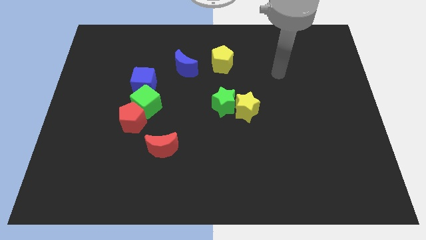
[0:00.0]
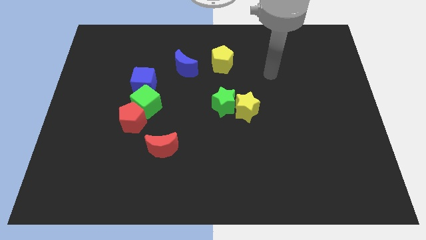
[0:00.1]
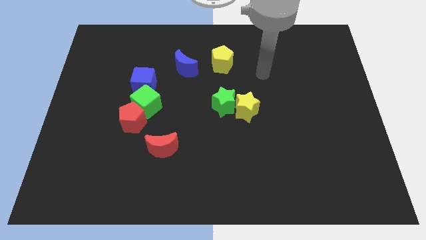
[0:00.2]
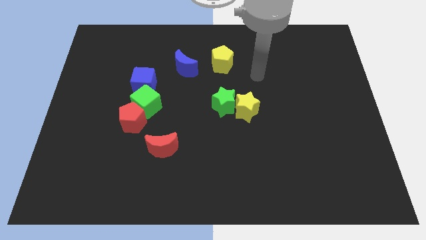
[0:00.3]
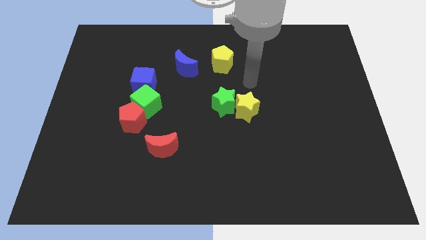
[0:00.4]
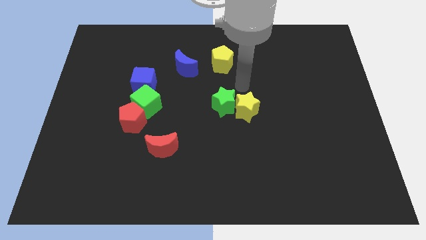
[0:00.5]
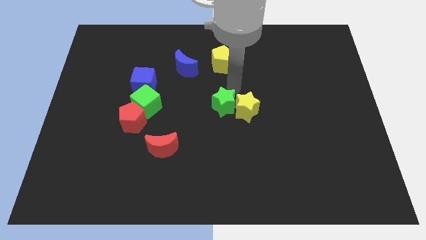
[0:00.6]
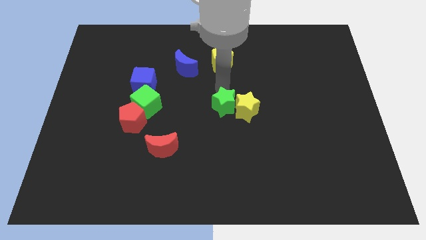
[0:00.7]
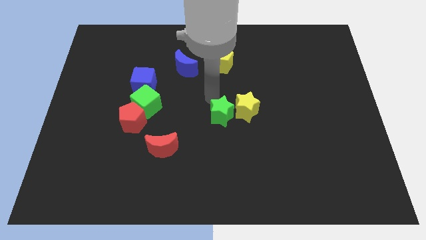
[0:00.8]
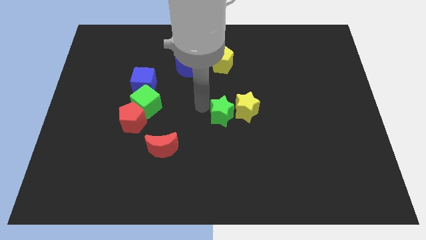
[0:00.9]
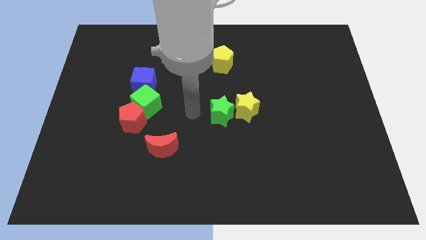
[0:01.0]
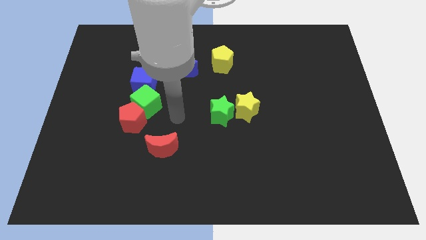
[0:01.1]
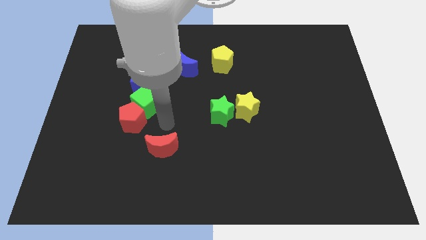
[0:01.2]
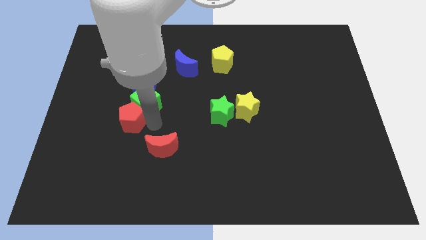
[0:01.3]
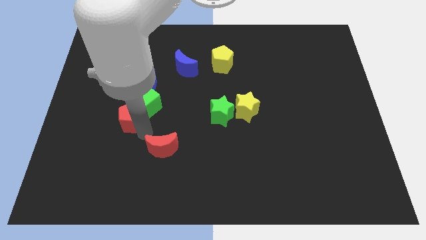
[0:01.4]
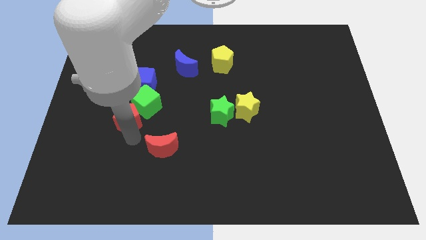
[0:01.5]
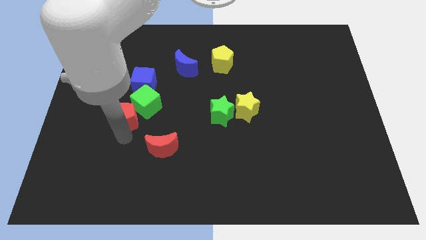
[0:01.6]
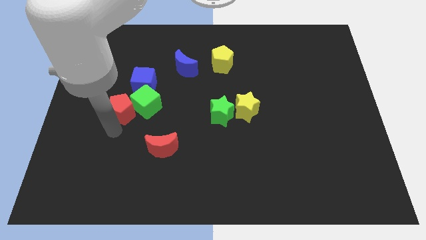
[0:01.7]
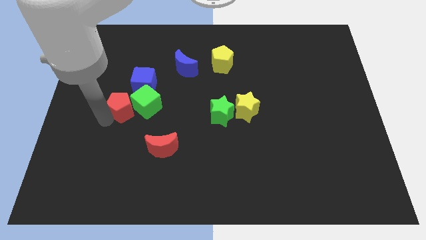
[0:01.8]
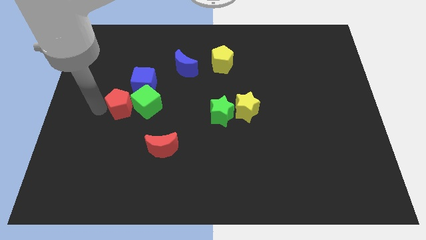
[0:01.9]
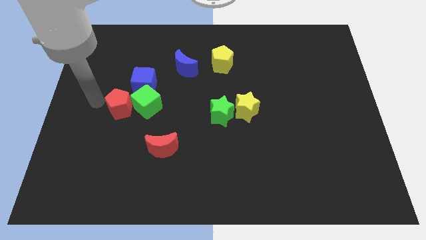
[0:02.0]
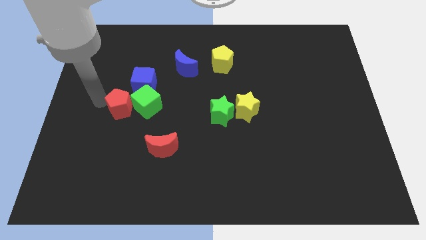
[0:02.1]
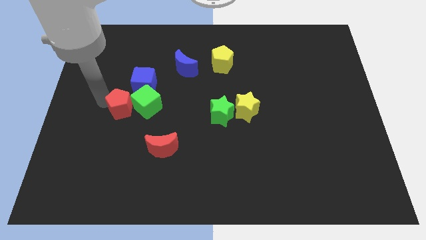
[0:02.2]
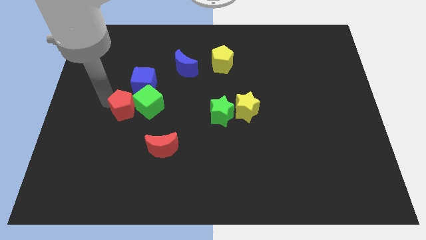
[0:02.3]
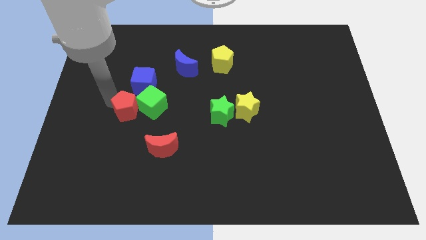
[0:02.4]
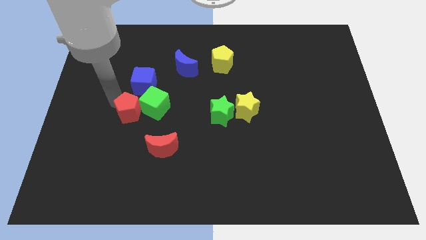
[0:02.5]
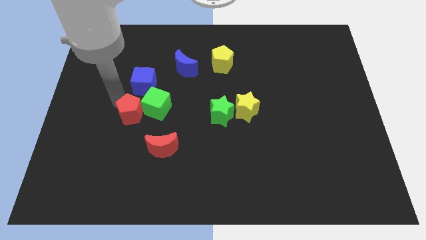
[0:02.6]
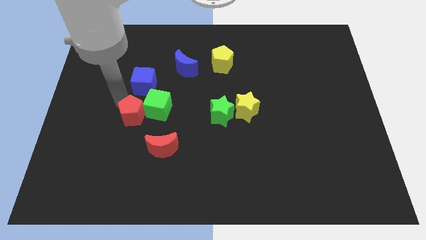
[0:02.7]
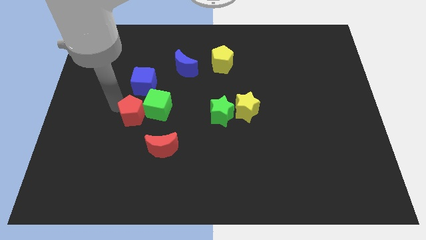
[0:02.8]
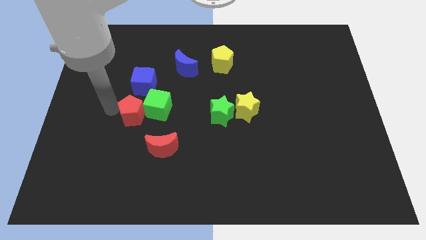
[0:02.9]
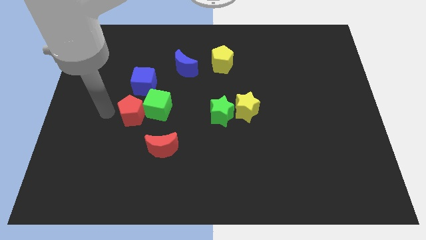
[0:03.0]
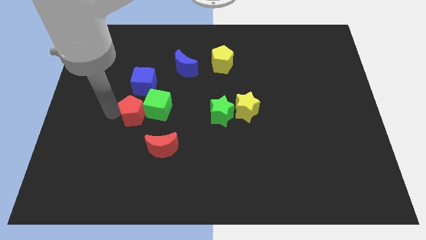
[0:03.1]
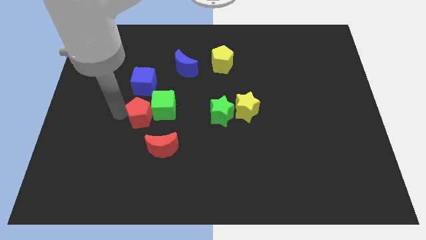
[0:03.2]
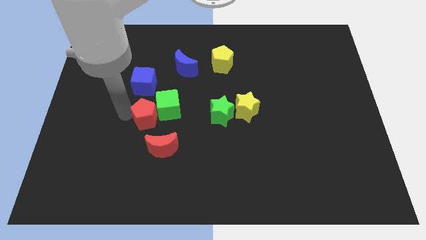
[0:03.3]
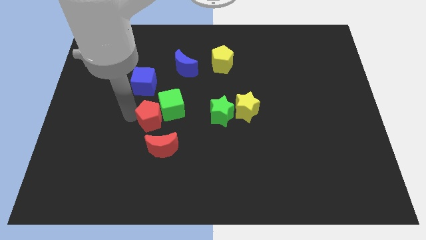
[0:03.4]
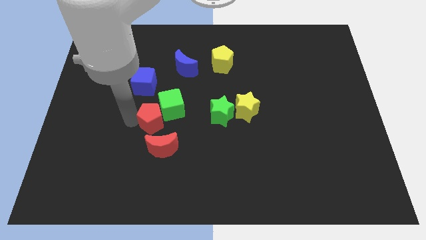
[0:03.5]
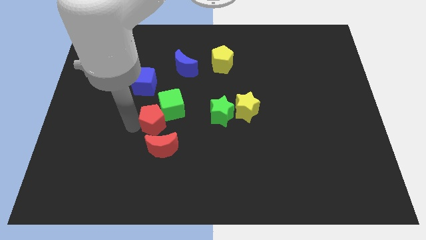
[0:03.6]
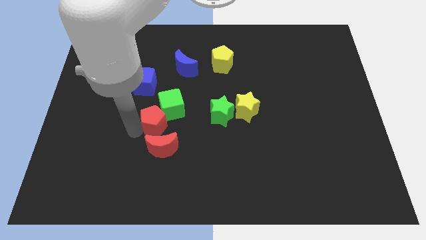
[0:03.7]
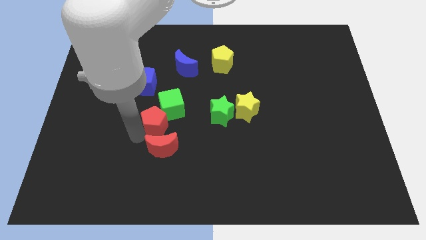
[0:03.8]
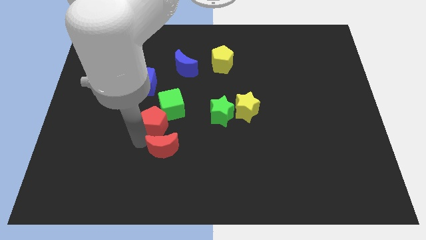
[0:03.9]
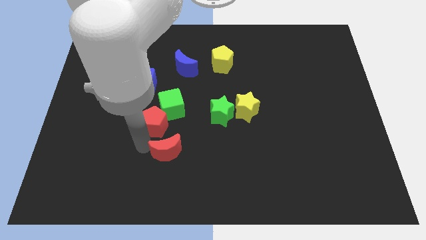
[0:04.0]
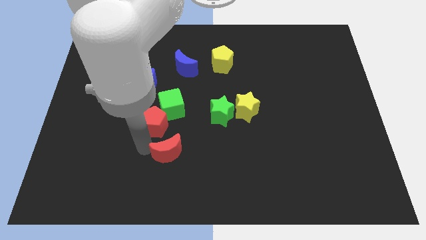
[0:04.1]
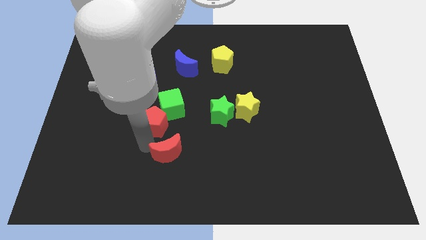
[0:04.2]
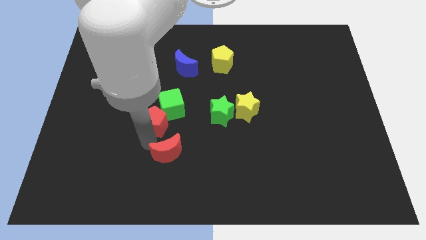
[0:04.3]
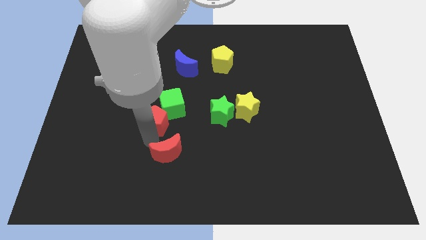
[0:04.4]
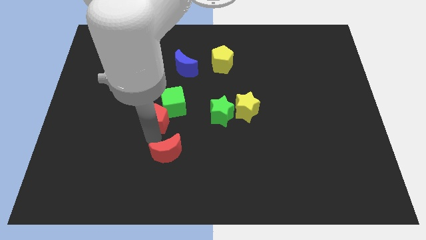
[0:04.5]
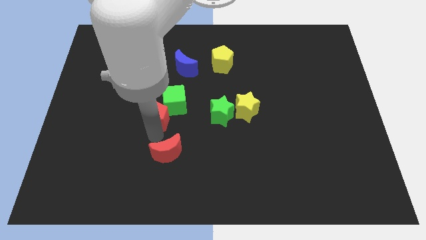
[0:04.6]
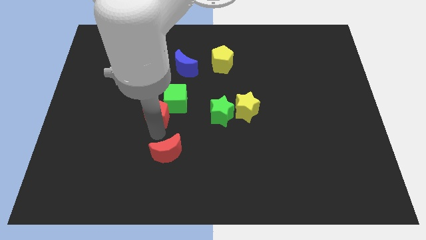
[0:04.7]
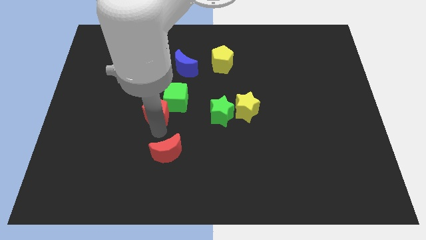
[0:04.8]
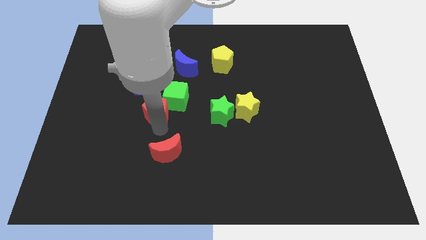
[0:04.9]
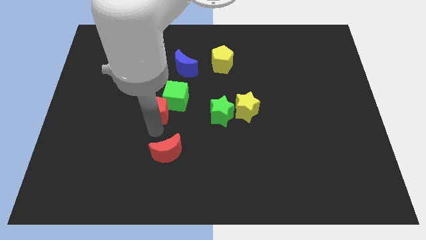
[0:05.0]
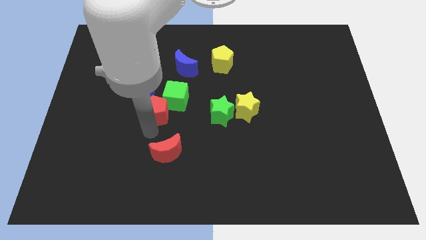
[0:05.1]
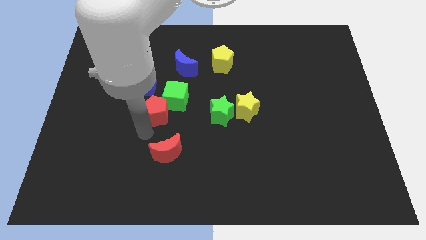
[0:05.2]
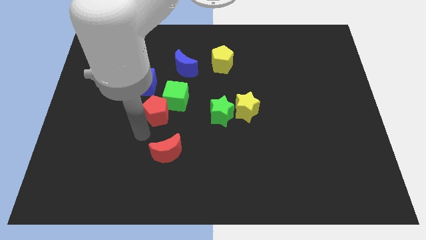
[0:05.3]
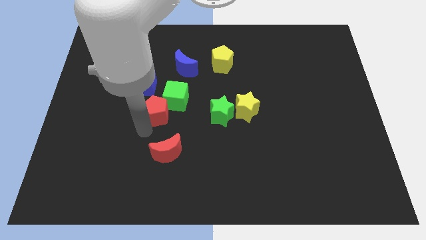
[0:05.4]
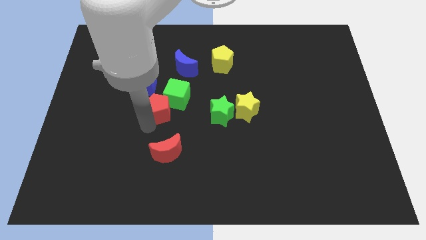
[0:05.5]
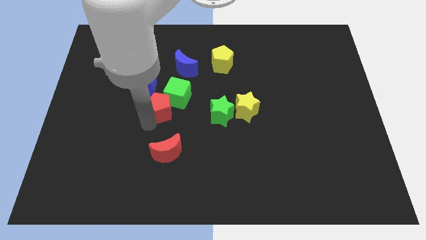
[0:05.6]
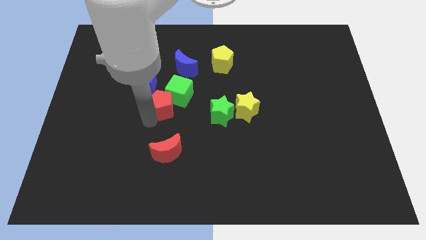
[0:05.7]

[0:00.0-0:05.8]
slightly move the red pentagon up and to the right diagonally

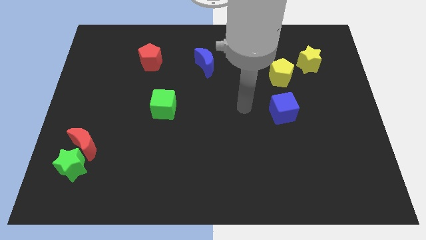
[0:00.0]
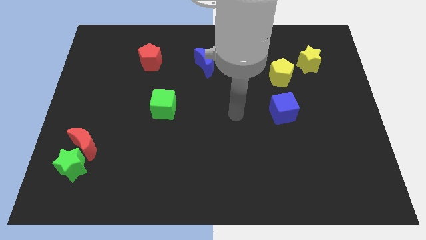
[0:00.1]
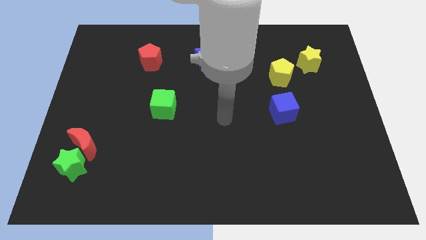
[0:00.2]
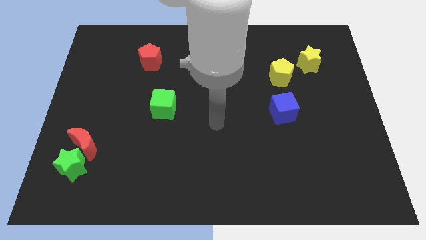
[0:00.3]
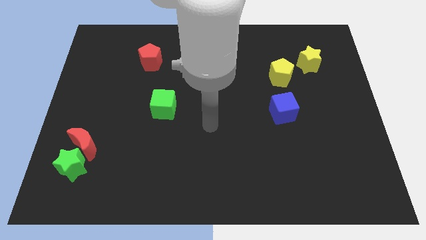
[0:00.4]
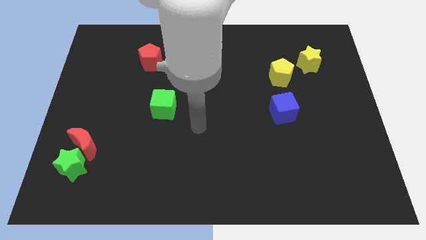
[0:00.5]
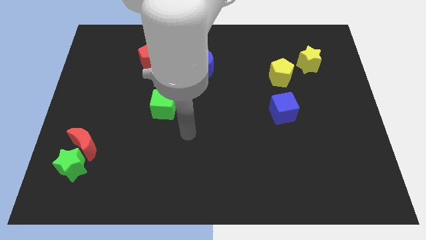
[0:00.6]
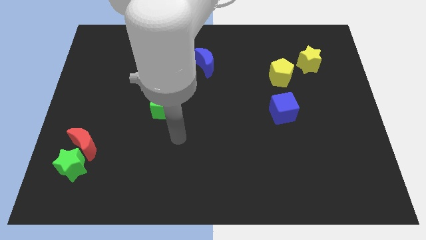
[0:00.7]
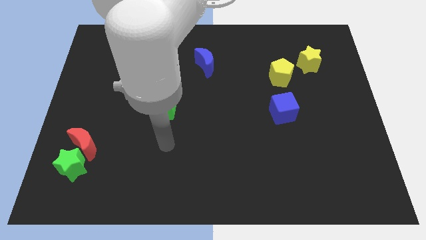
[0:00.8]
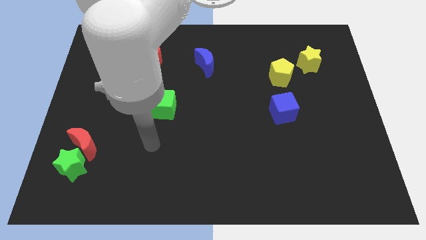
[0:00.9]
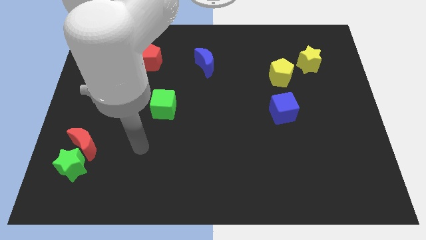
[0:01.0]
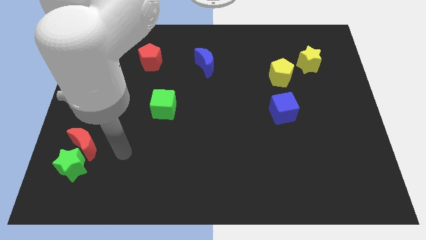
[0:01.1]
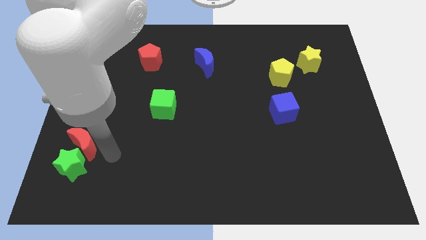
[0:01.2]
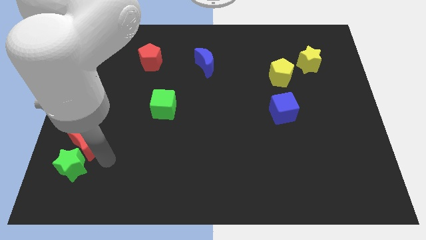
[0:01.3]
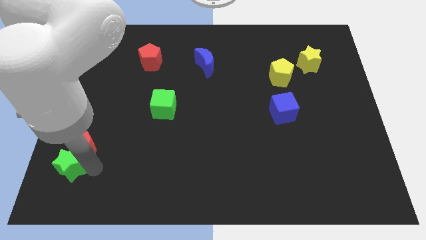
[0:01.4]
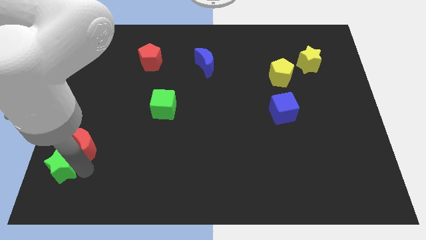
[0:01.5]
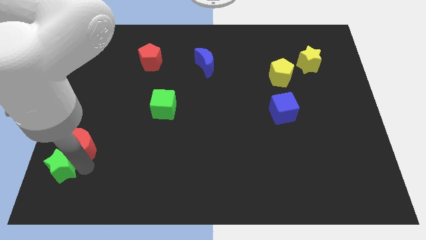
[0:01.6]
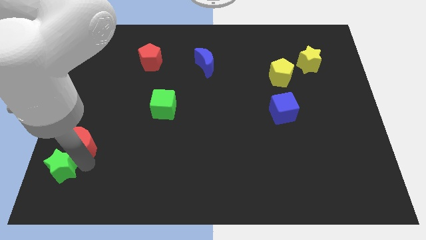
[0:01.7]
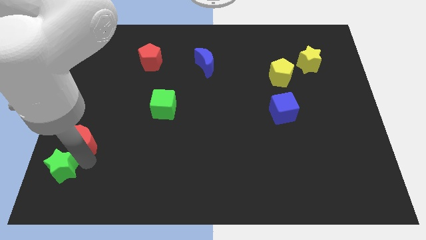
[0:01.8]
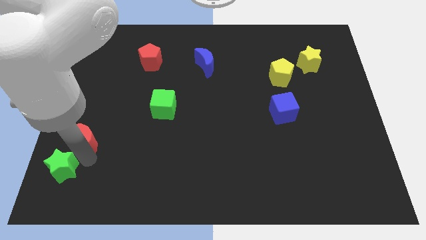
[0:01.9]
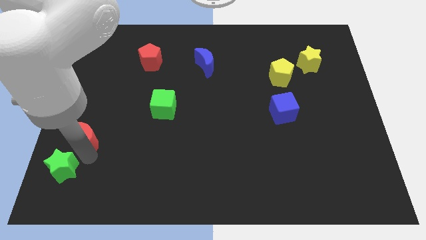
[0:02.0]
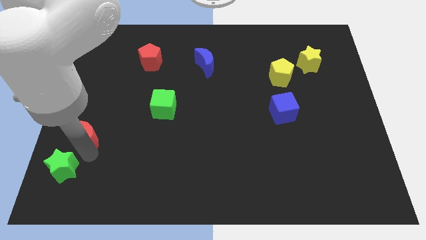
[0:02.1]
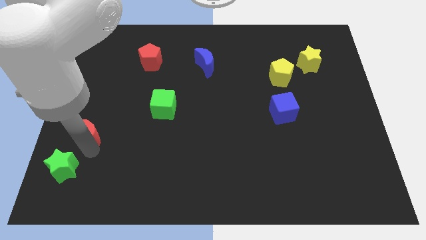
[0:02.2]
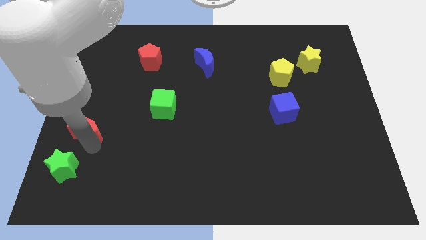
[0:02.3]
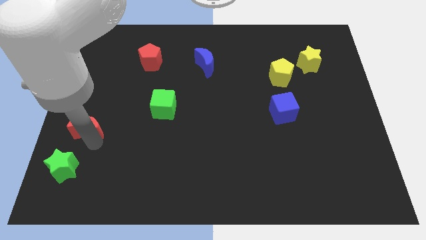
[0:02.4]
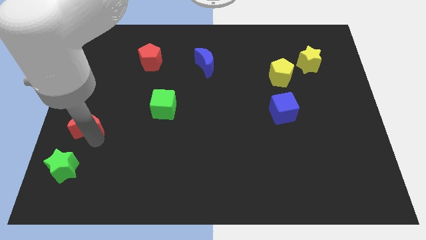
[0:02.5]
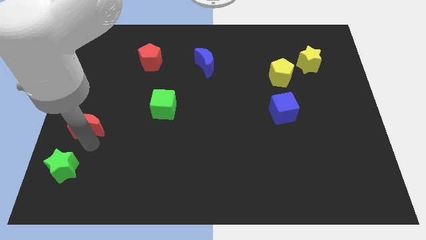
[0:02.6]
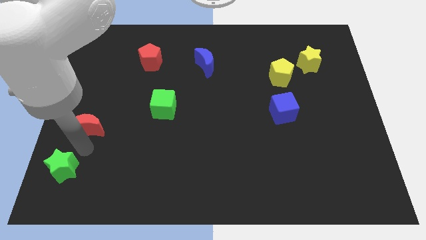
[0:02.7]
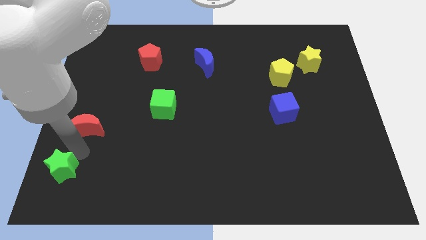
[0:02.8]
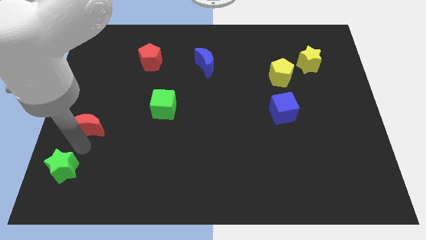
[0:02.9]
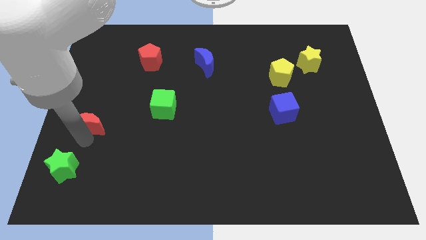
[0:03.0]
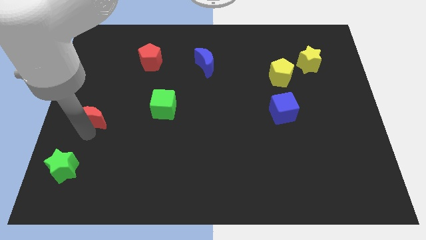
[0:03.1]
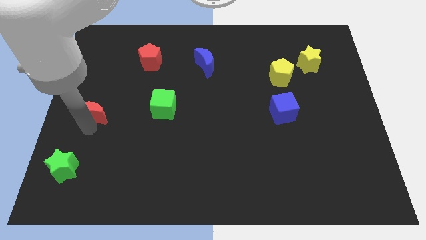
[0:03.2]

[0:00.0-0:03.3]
move the red moon upwards a little
